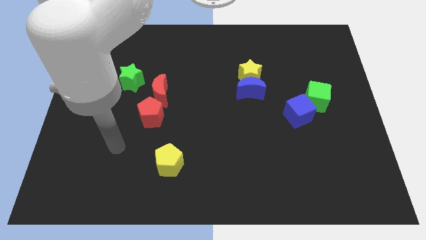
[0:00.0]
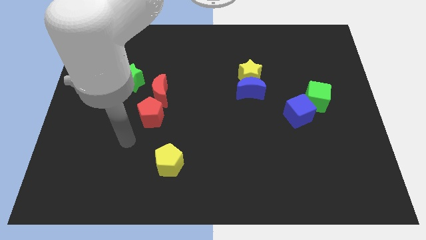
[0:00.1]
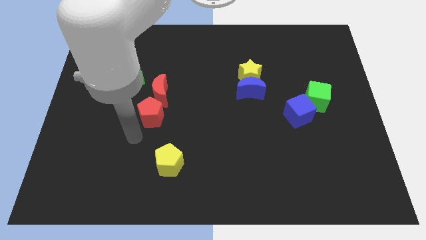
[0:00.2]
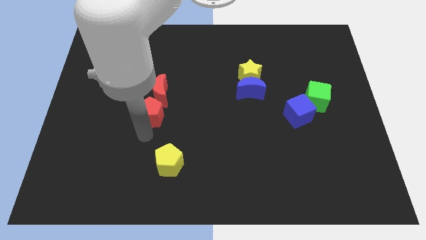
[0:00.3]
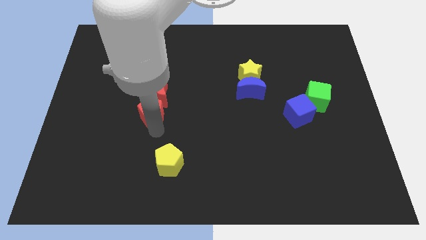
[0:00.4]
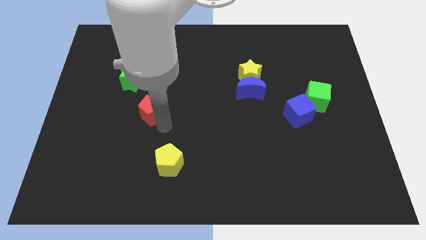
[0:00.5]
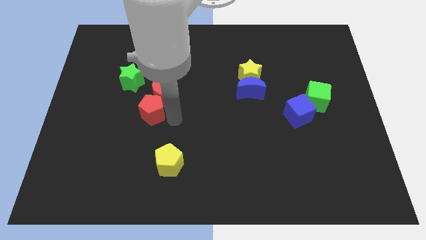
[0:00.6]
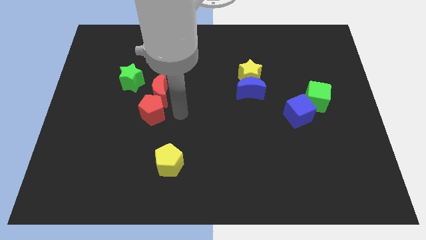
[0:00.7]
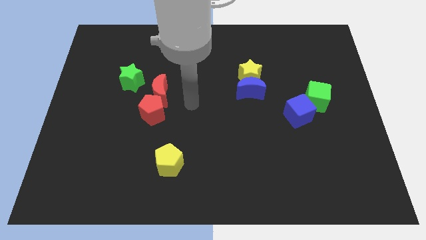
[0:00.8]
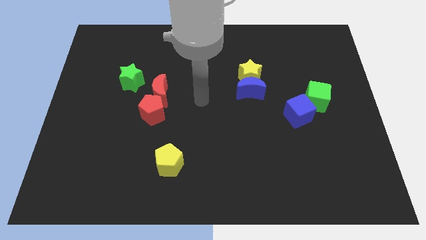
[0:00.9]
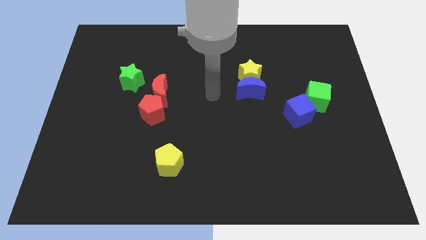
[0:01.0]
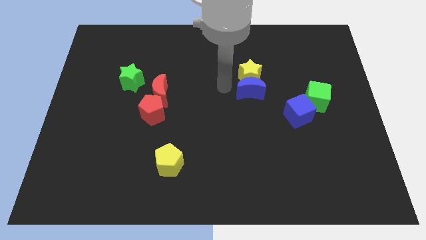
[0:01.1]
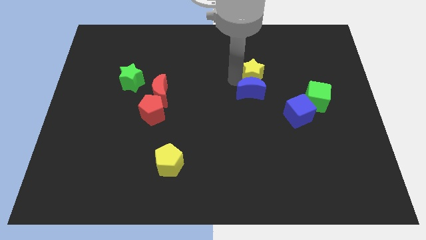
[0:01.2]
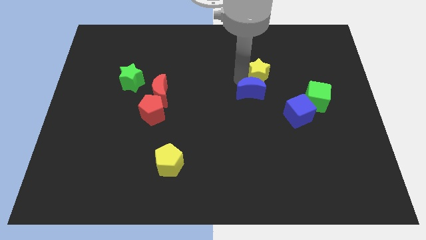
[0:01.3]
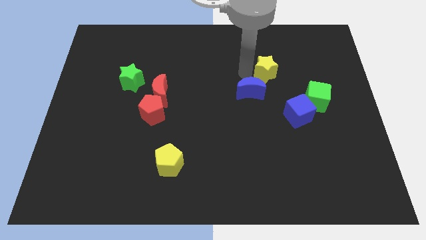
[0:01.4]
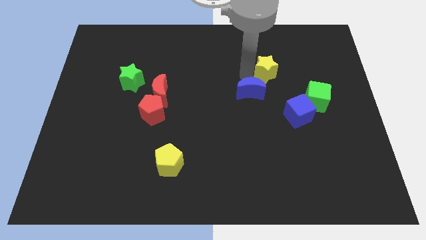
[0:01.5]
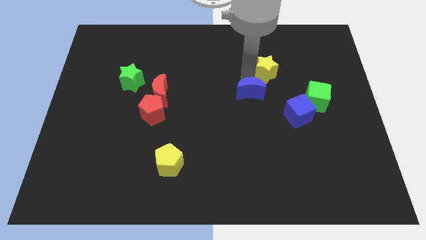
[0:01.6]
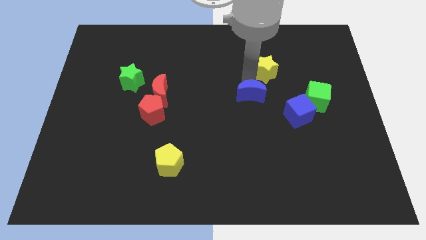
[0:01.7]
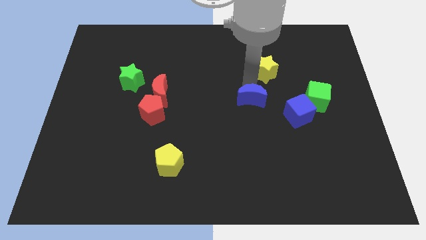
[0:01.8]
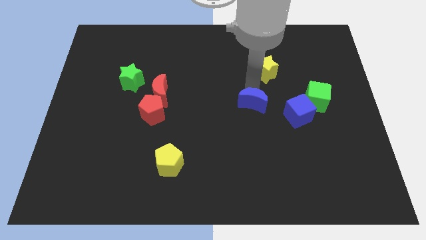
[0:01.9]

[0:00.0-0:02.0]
pull the blue moon apart from the yellow star

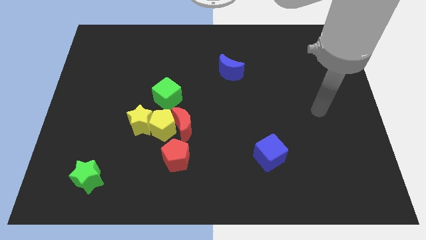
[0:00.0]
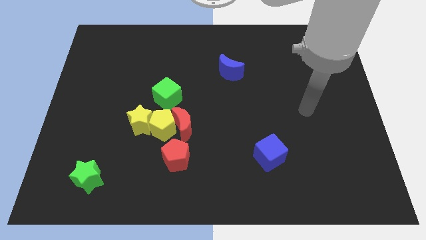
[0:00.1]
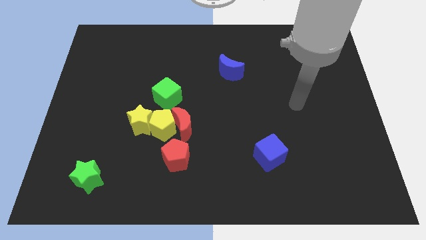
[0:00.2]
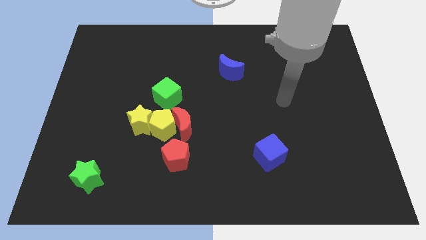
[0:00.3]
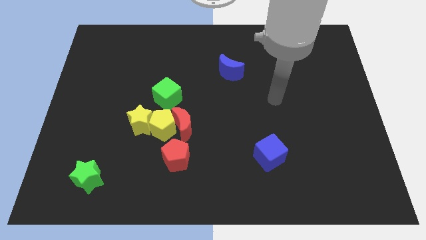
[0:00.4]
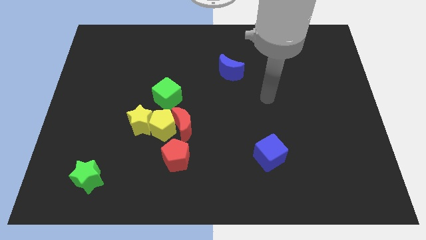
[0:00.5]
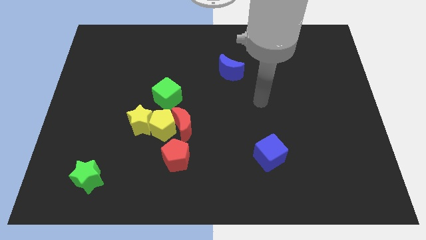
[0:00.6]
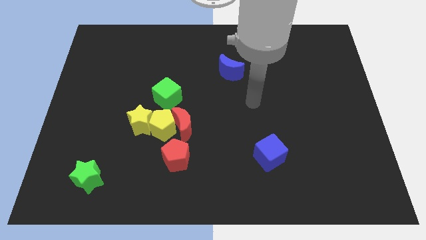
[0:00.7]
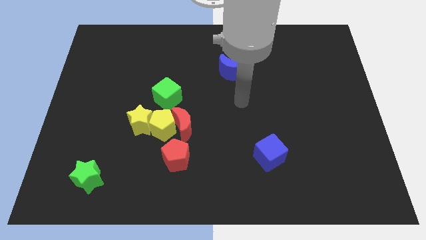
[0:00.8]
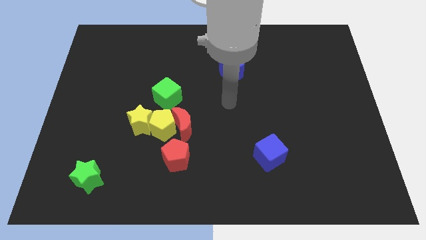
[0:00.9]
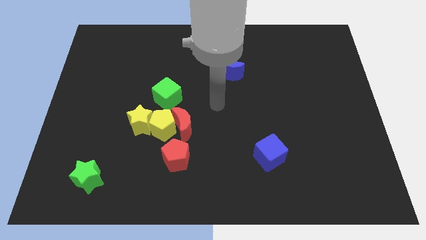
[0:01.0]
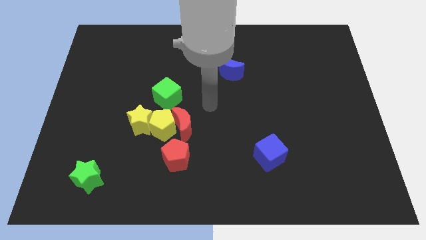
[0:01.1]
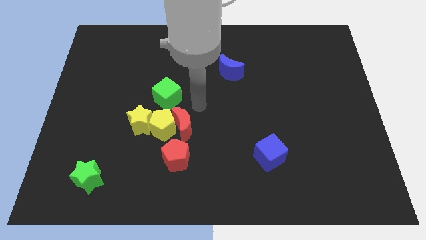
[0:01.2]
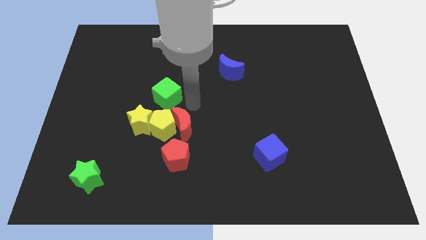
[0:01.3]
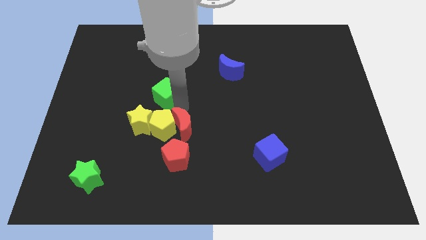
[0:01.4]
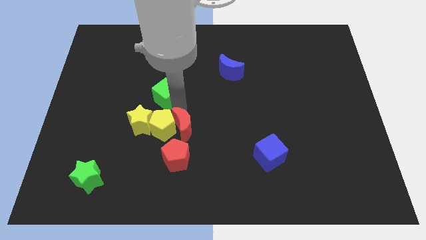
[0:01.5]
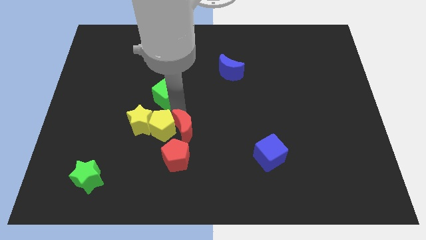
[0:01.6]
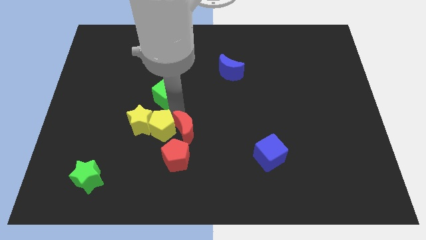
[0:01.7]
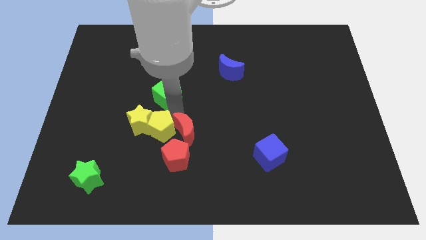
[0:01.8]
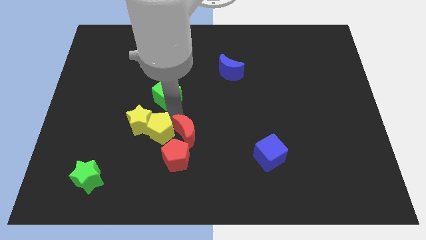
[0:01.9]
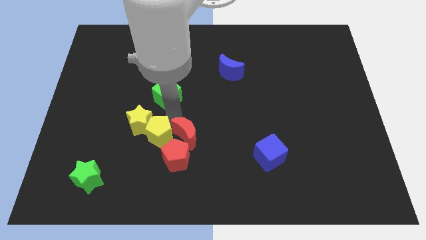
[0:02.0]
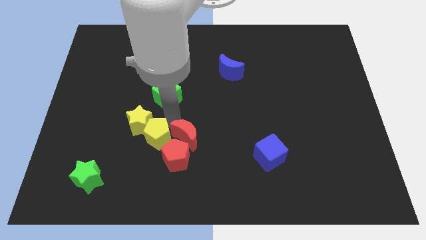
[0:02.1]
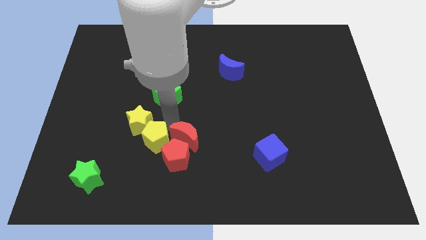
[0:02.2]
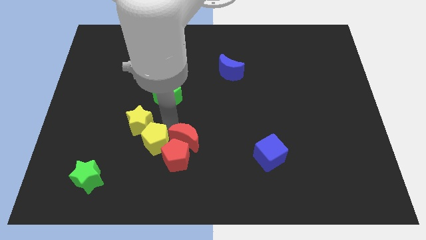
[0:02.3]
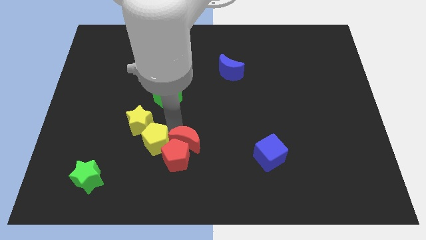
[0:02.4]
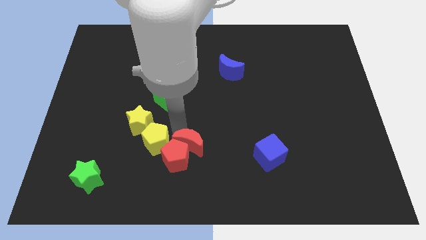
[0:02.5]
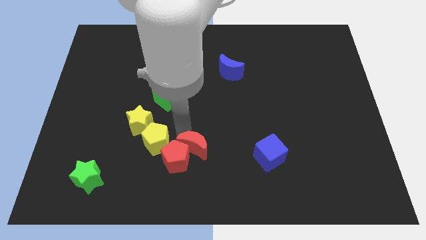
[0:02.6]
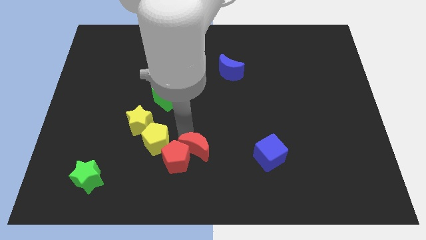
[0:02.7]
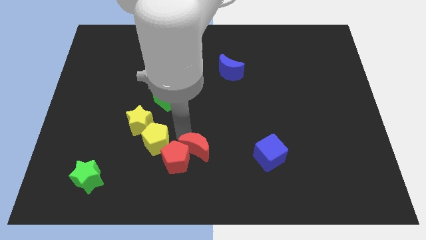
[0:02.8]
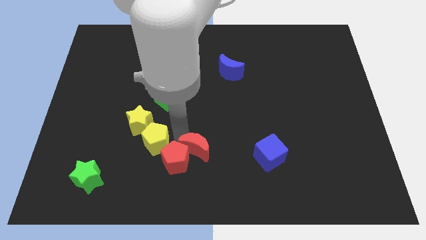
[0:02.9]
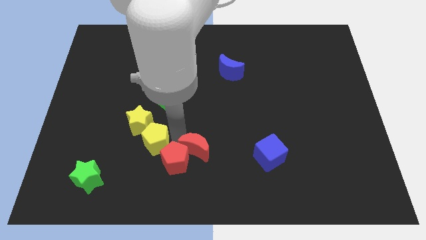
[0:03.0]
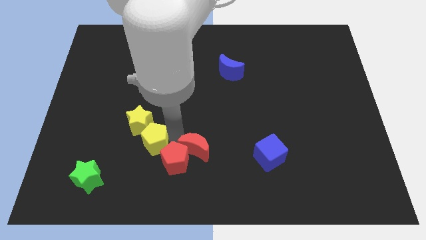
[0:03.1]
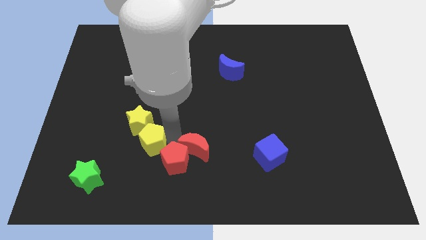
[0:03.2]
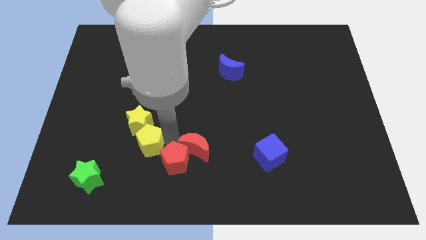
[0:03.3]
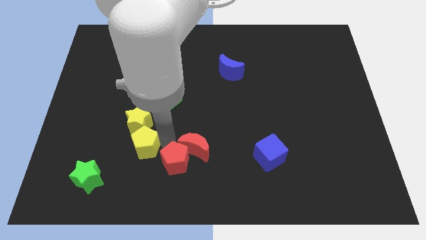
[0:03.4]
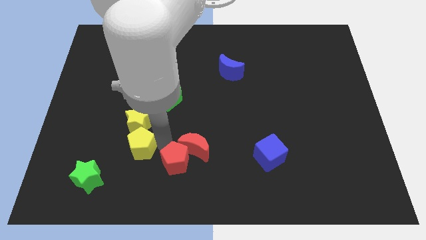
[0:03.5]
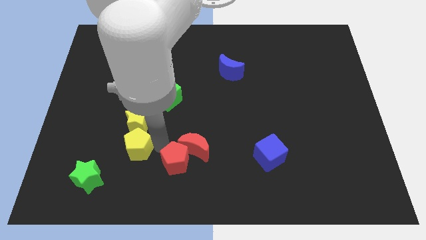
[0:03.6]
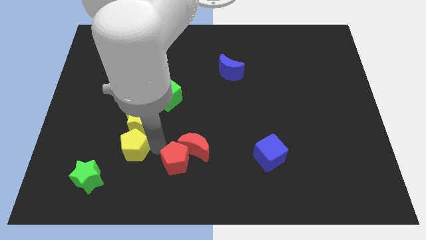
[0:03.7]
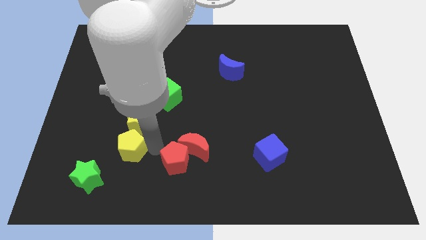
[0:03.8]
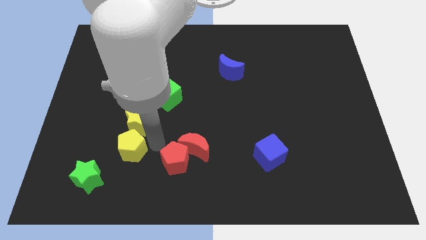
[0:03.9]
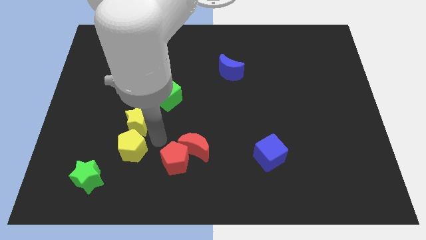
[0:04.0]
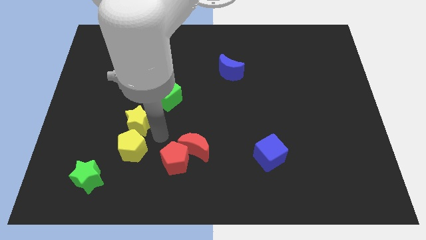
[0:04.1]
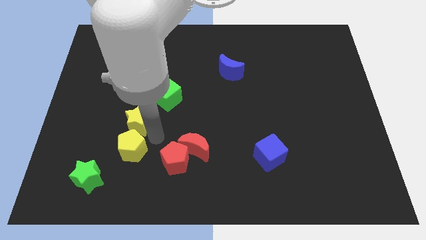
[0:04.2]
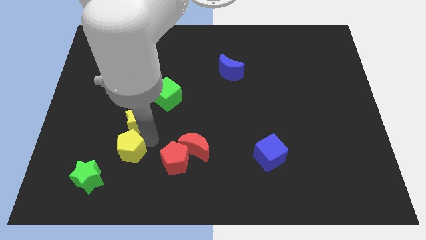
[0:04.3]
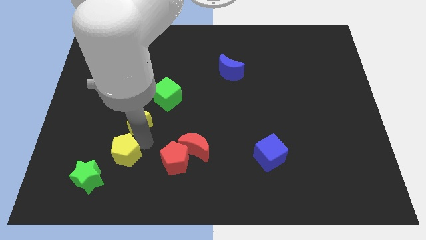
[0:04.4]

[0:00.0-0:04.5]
pull the yellow pentagon apart from the group of blocks

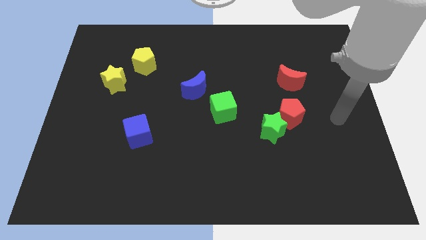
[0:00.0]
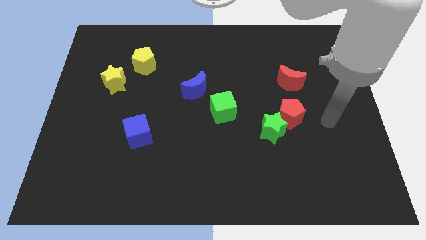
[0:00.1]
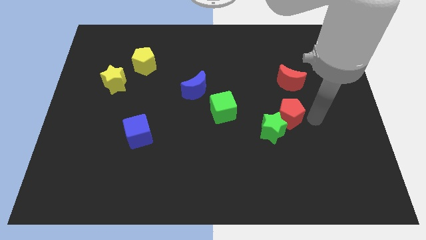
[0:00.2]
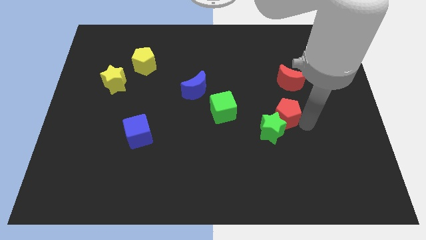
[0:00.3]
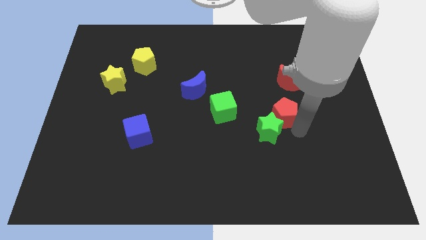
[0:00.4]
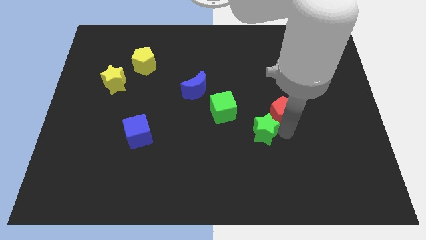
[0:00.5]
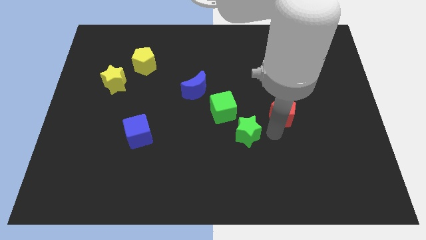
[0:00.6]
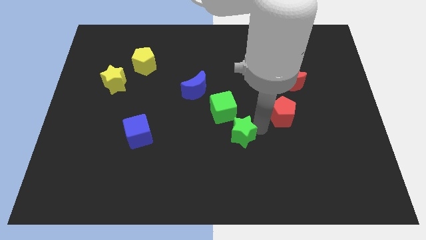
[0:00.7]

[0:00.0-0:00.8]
move the red pentagon away from the green star

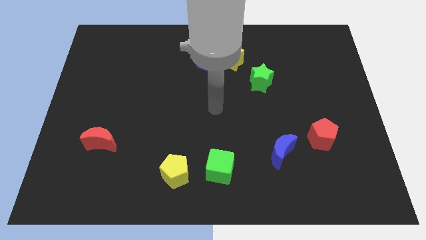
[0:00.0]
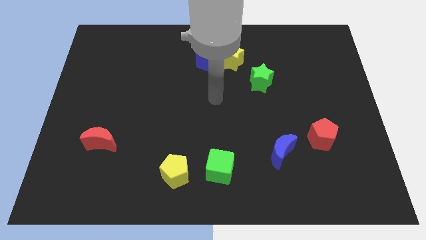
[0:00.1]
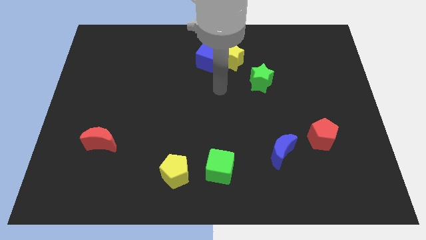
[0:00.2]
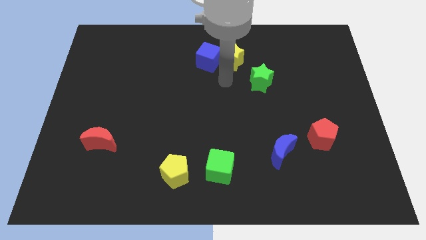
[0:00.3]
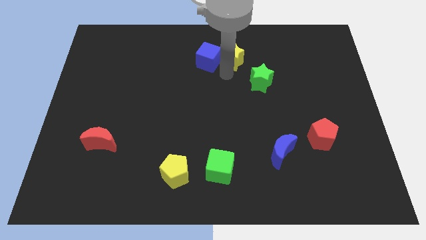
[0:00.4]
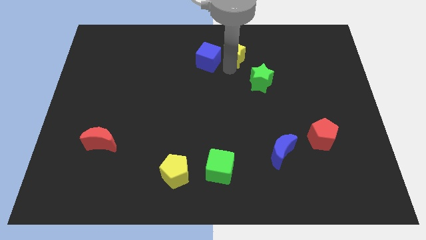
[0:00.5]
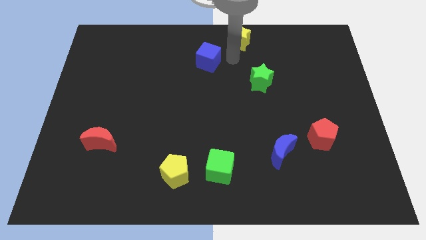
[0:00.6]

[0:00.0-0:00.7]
move the blue cube away from the yellow star

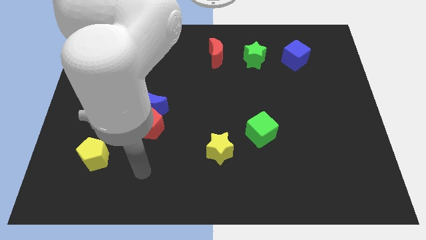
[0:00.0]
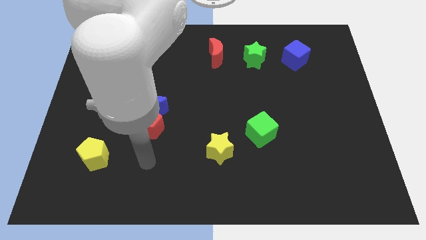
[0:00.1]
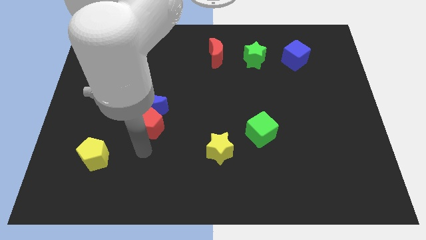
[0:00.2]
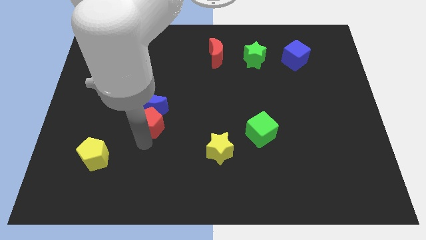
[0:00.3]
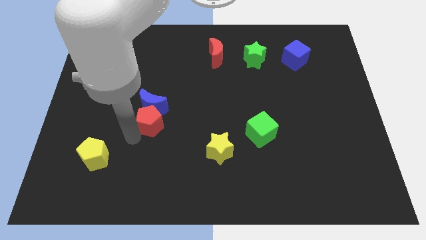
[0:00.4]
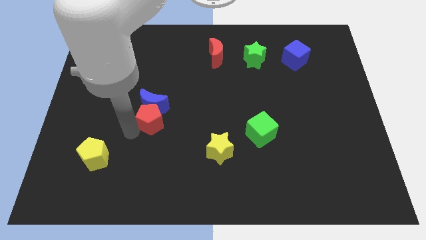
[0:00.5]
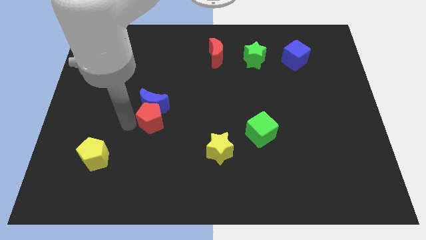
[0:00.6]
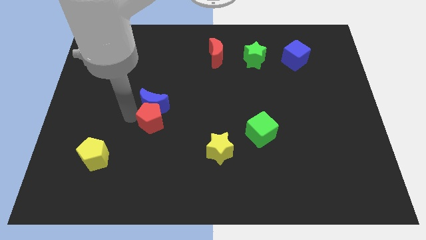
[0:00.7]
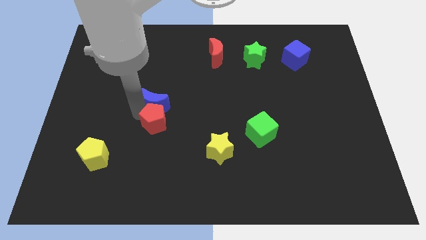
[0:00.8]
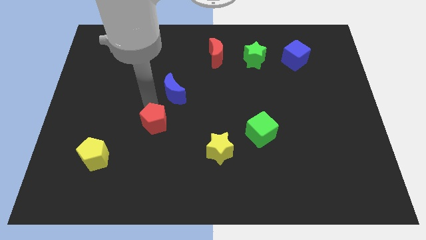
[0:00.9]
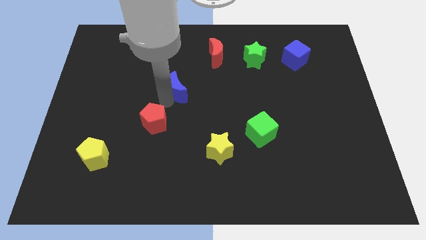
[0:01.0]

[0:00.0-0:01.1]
pull the red pentagon apart from the blue moon

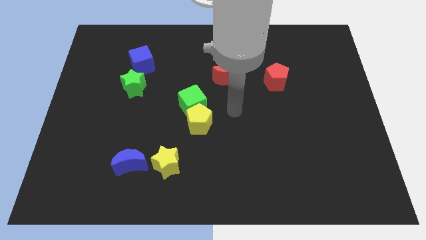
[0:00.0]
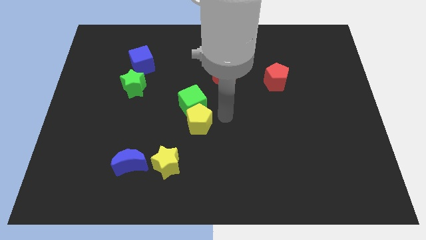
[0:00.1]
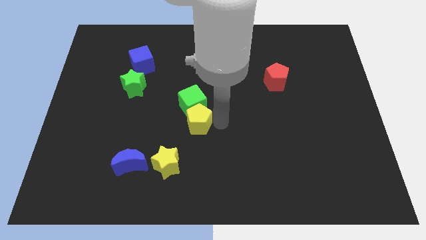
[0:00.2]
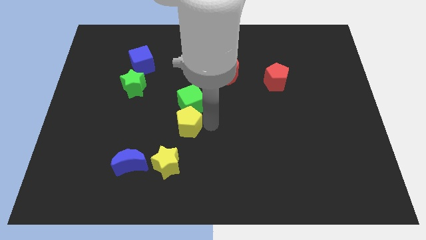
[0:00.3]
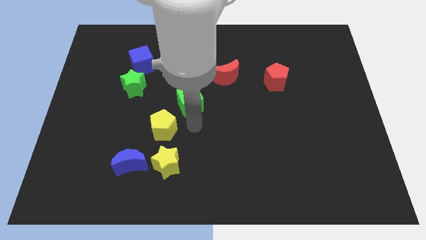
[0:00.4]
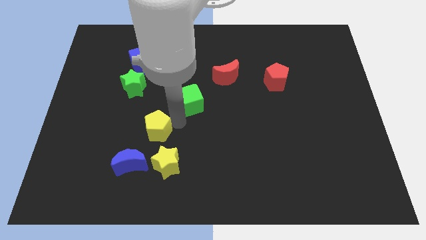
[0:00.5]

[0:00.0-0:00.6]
move the green cube away from the yellow pentagon
